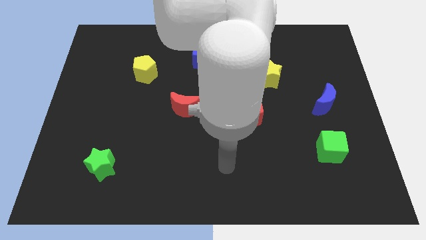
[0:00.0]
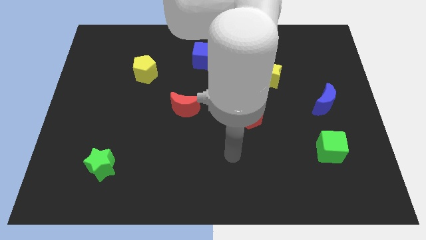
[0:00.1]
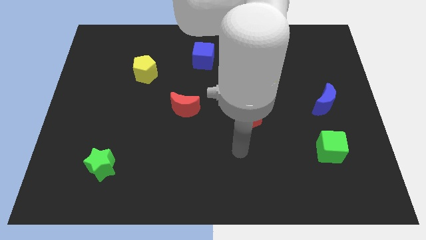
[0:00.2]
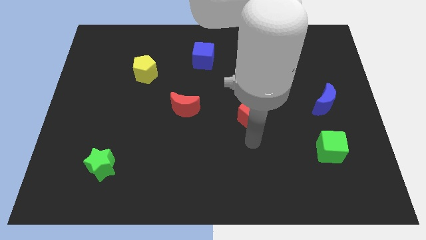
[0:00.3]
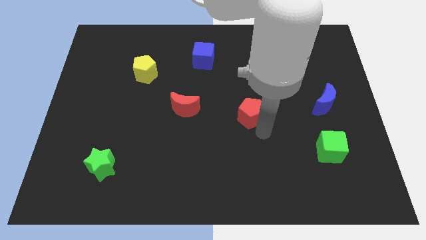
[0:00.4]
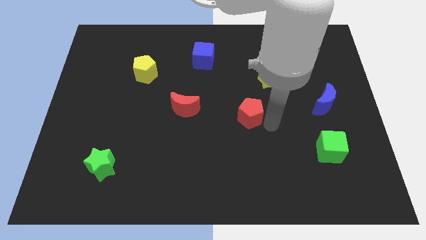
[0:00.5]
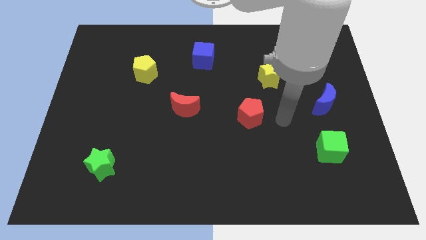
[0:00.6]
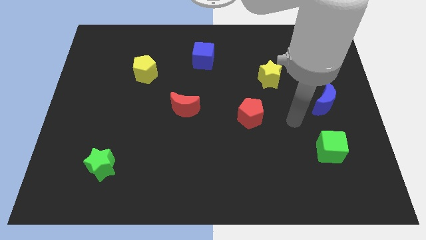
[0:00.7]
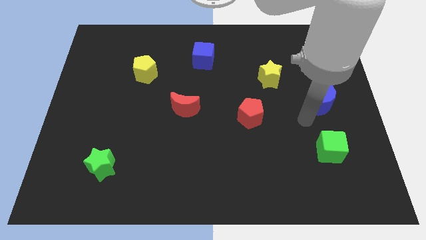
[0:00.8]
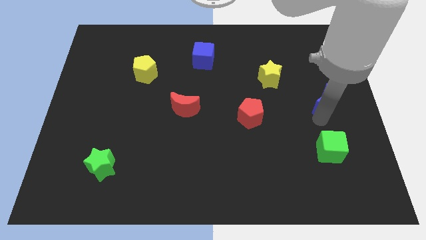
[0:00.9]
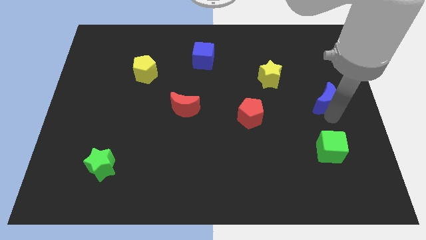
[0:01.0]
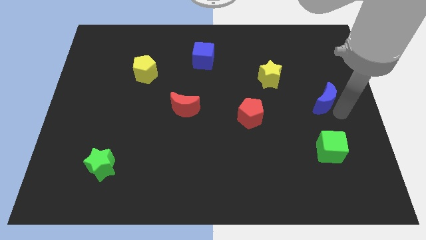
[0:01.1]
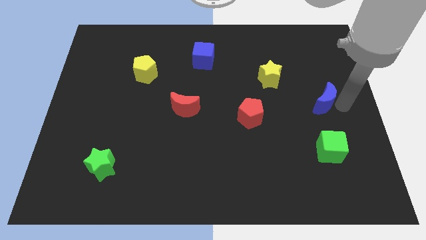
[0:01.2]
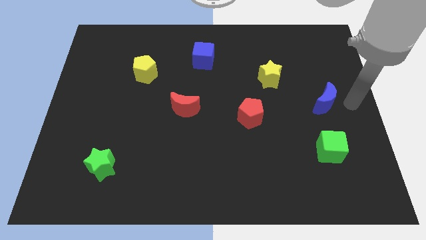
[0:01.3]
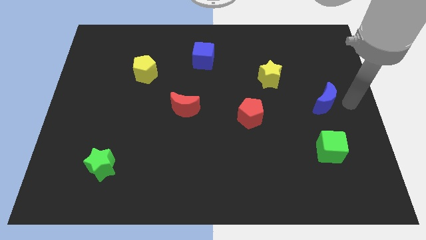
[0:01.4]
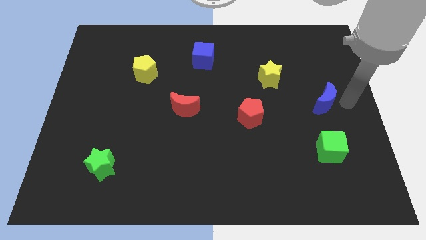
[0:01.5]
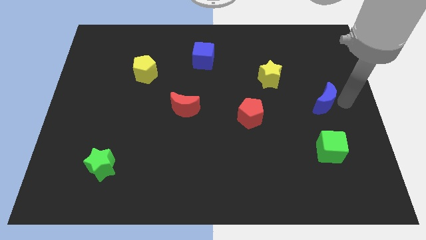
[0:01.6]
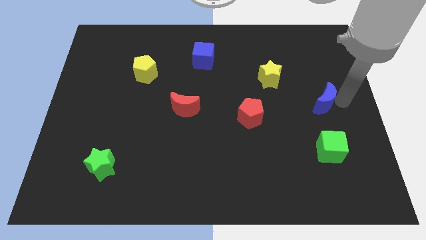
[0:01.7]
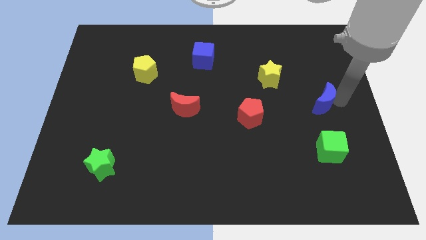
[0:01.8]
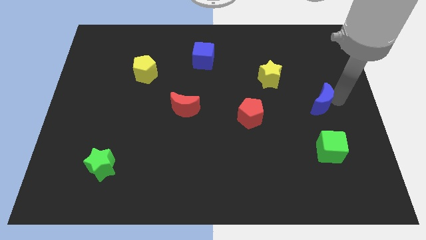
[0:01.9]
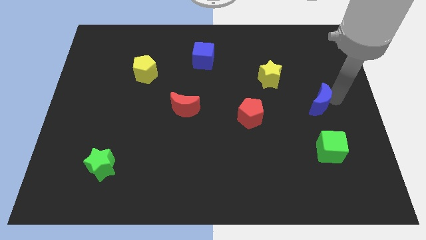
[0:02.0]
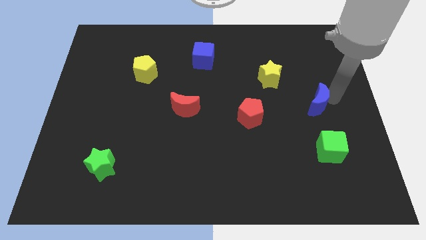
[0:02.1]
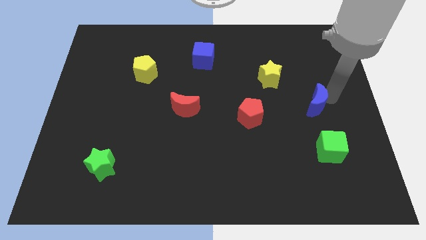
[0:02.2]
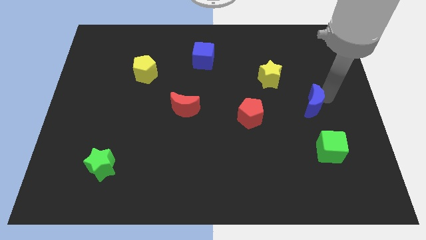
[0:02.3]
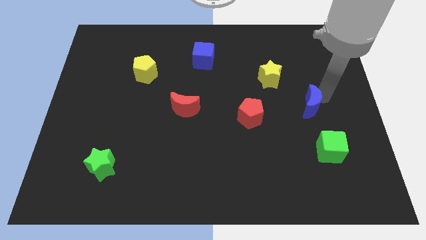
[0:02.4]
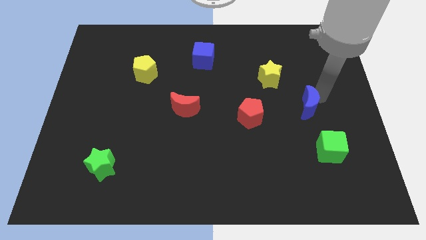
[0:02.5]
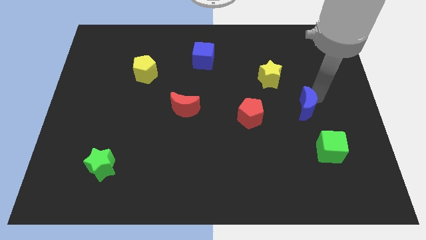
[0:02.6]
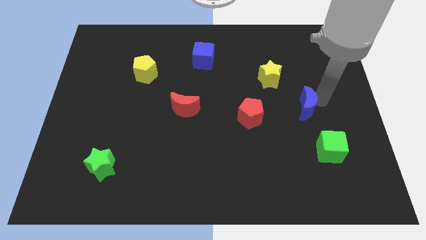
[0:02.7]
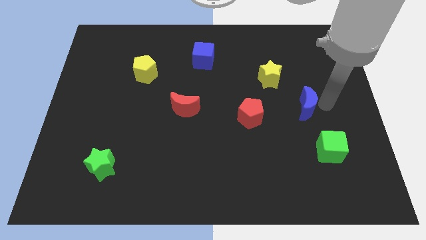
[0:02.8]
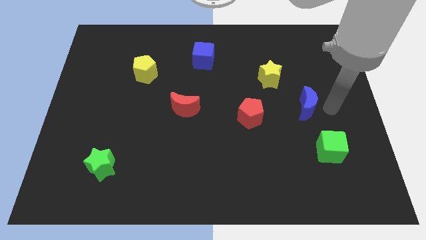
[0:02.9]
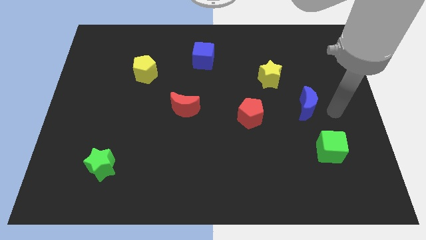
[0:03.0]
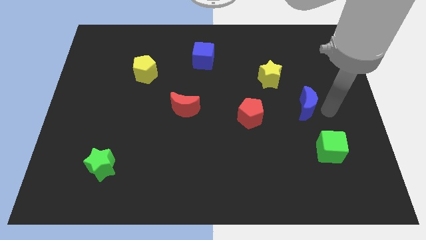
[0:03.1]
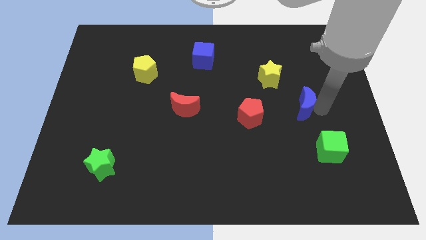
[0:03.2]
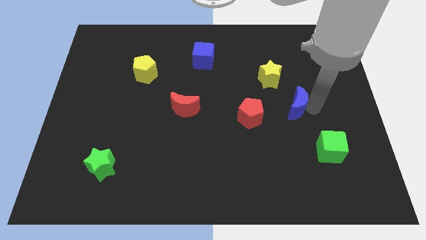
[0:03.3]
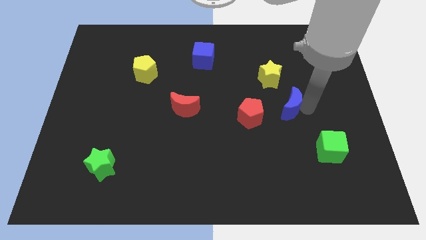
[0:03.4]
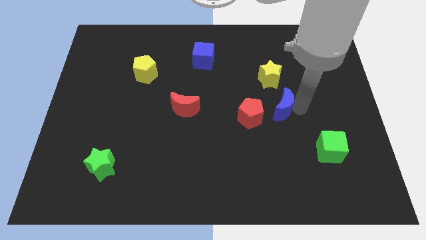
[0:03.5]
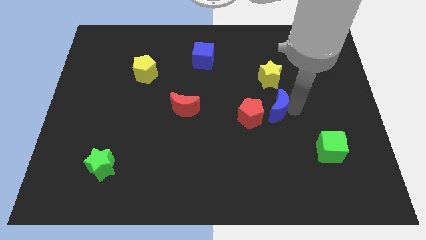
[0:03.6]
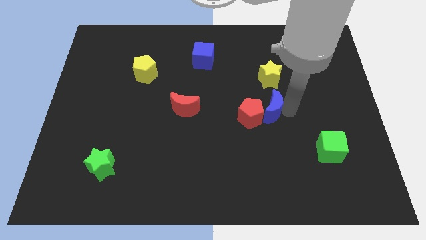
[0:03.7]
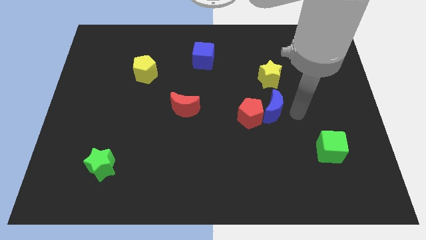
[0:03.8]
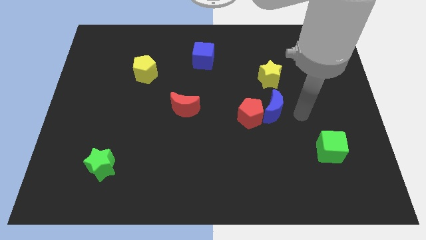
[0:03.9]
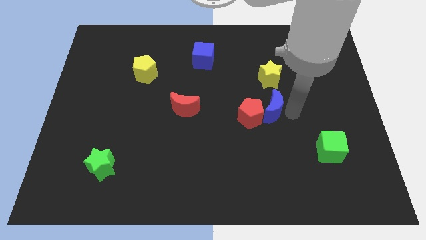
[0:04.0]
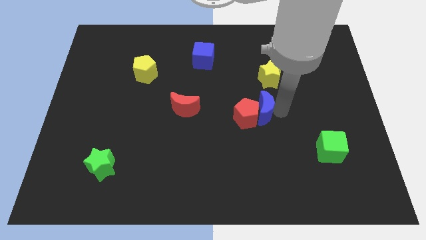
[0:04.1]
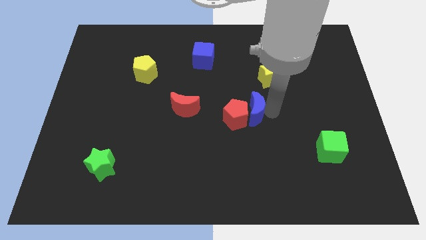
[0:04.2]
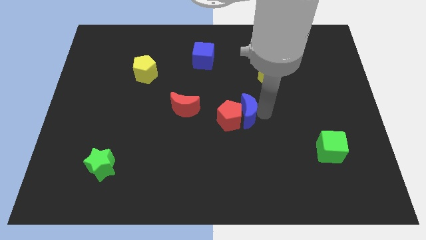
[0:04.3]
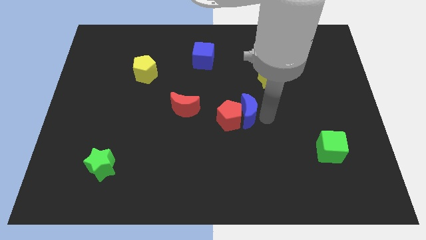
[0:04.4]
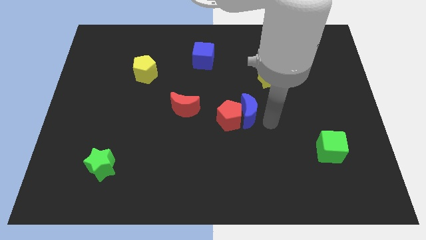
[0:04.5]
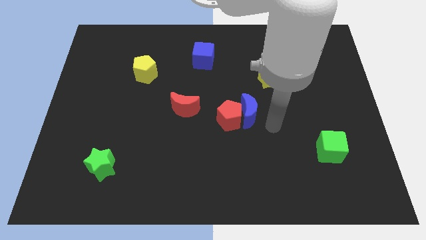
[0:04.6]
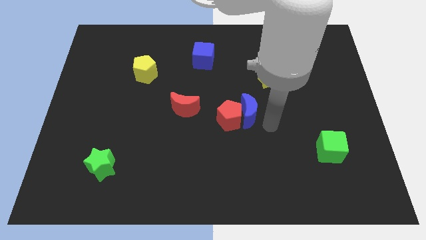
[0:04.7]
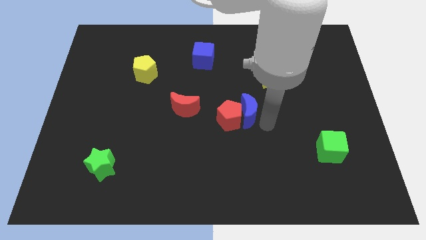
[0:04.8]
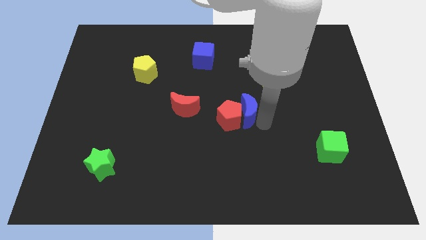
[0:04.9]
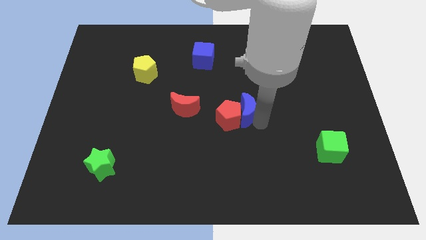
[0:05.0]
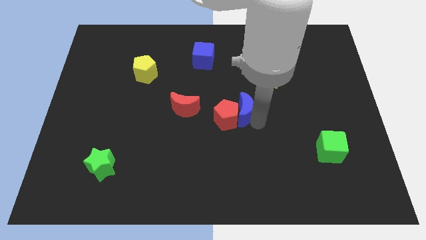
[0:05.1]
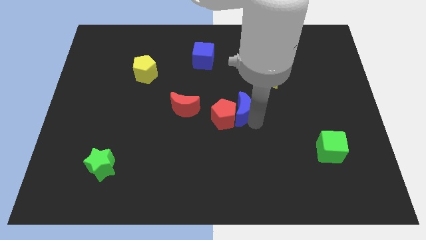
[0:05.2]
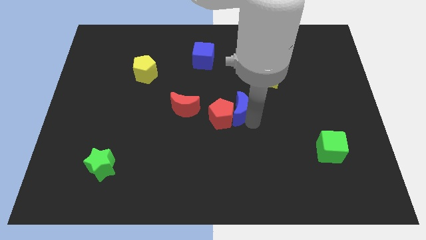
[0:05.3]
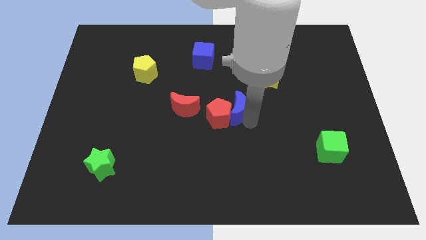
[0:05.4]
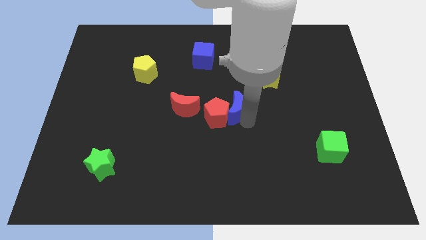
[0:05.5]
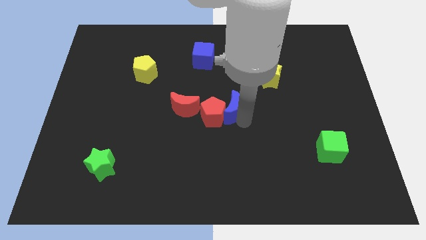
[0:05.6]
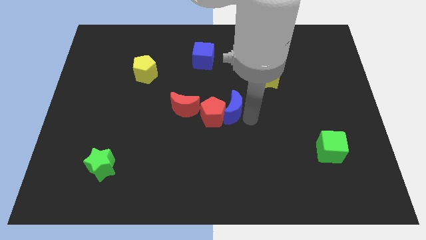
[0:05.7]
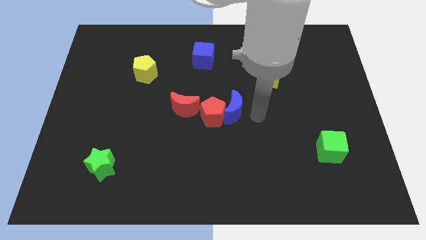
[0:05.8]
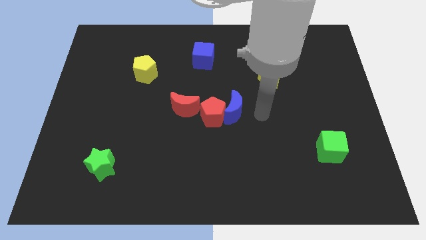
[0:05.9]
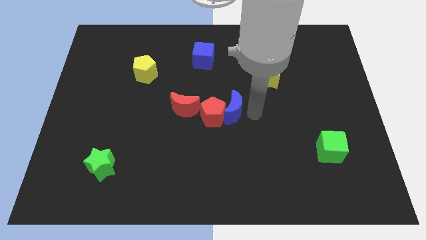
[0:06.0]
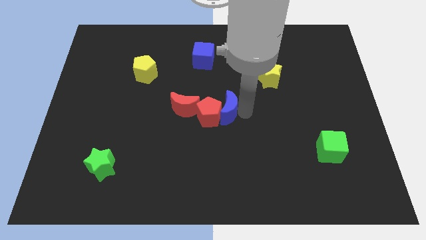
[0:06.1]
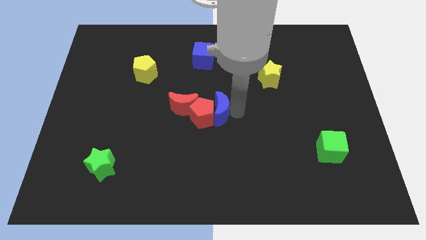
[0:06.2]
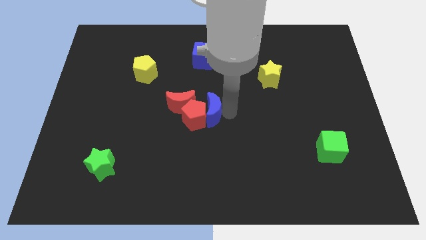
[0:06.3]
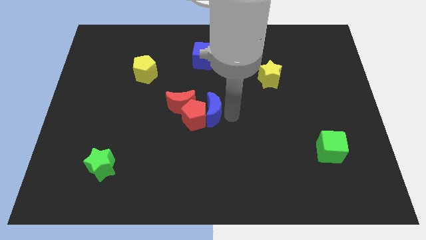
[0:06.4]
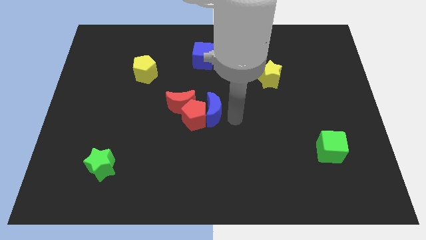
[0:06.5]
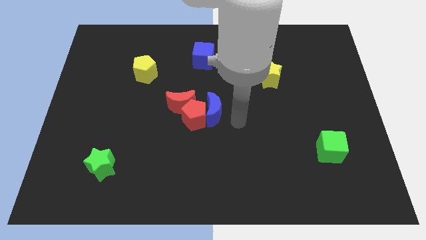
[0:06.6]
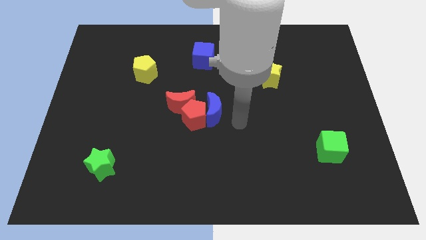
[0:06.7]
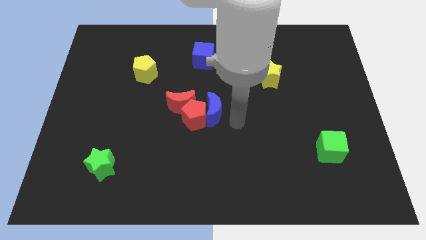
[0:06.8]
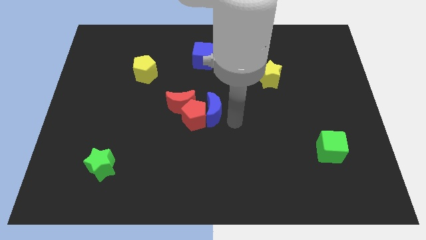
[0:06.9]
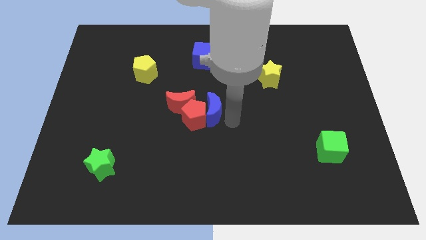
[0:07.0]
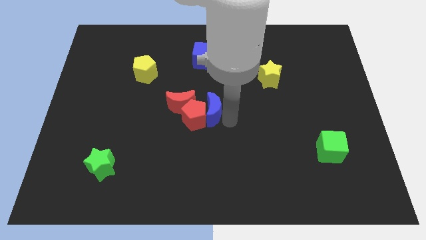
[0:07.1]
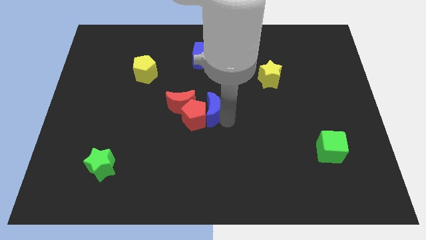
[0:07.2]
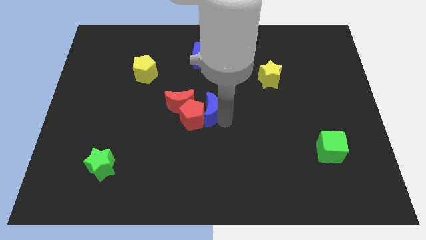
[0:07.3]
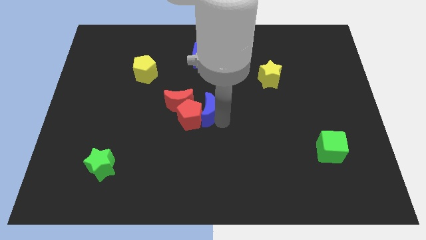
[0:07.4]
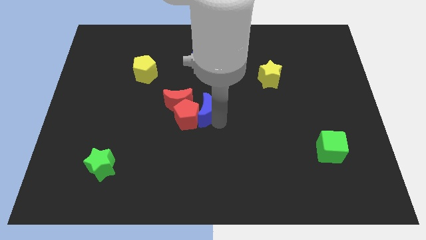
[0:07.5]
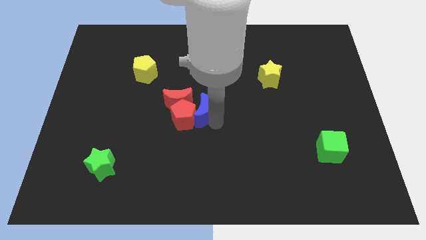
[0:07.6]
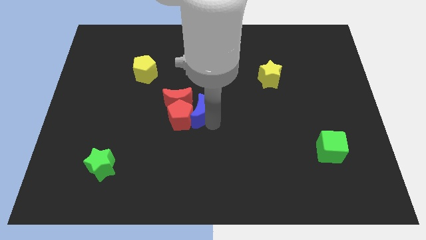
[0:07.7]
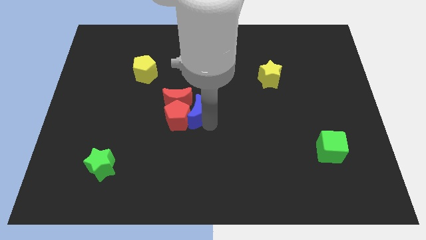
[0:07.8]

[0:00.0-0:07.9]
put the blue moon next to the red moon
